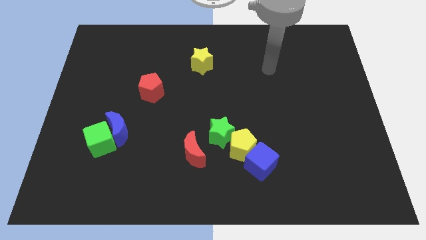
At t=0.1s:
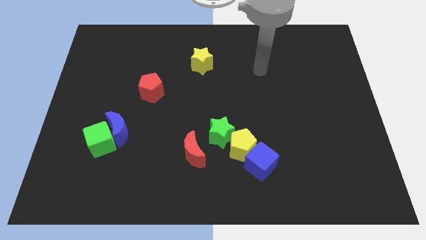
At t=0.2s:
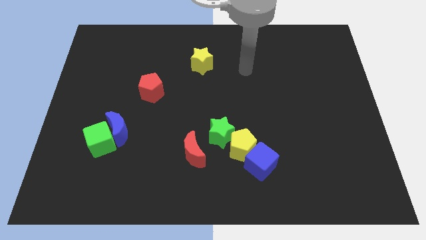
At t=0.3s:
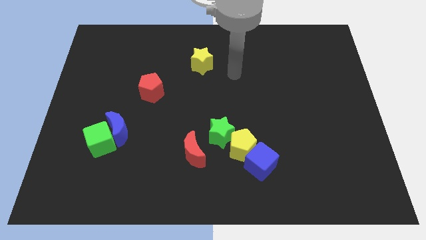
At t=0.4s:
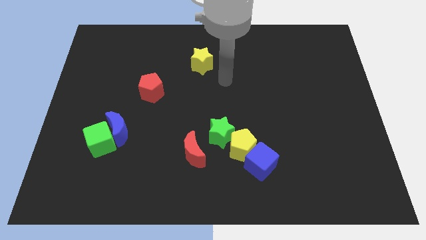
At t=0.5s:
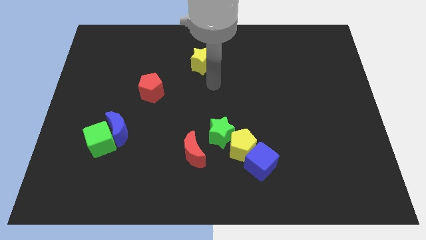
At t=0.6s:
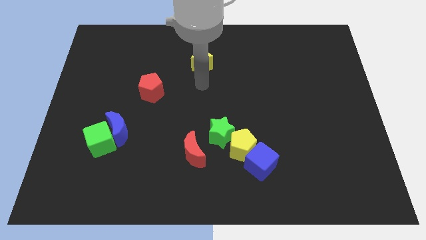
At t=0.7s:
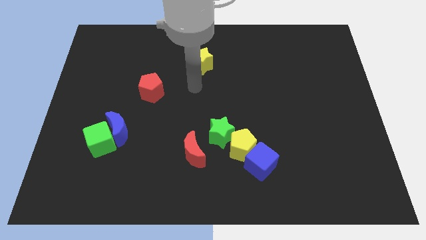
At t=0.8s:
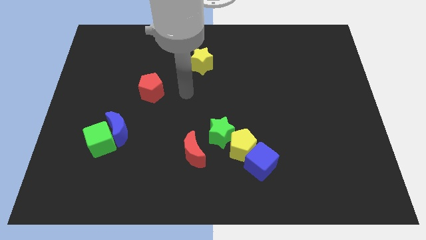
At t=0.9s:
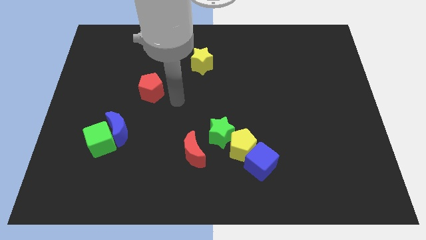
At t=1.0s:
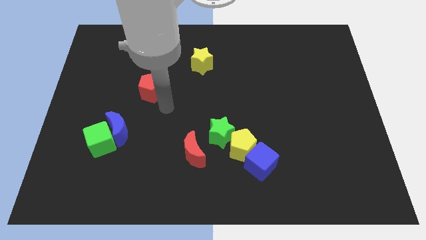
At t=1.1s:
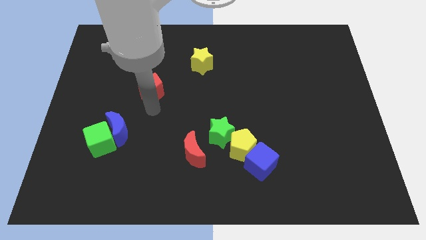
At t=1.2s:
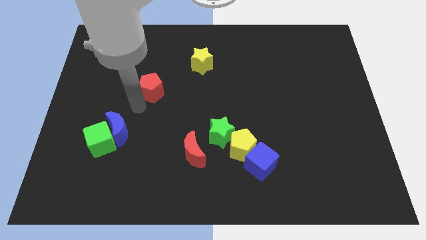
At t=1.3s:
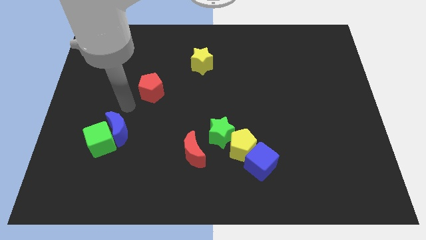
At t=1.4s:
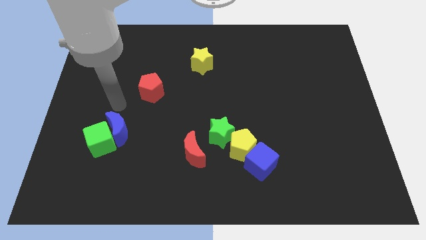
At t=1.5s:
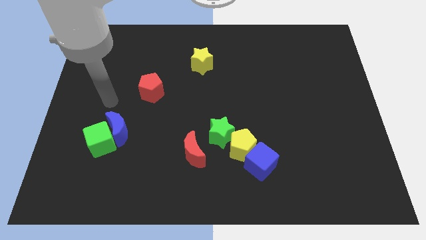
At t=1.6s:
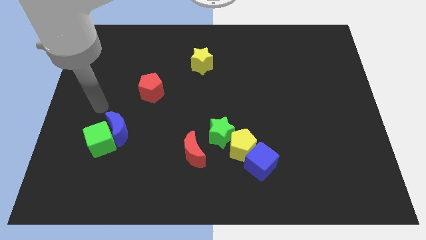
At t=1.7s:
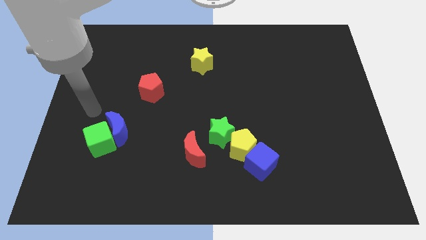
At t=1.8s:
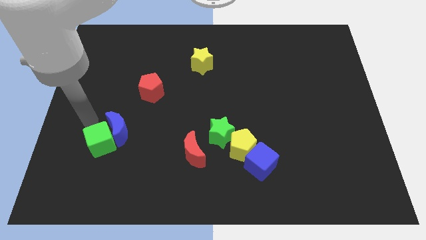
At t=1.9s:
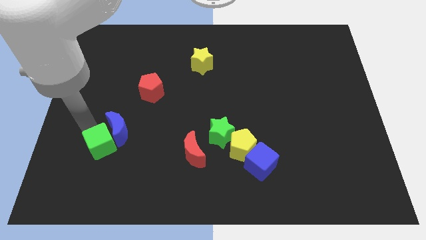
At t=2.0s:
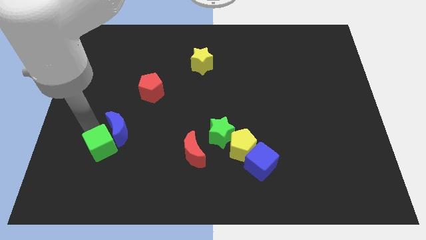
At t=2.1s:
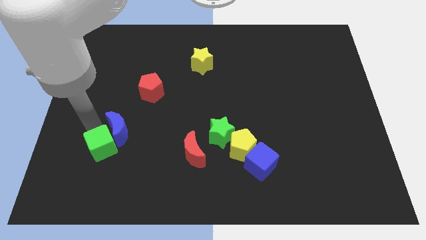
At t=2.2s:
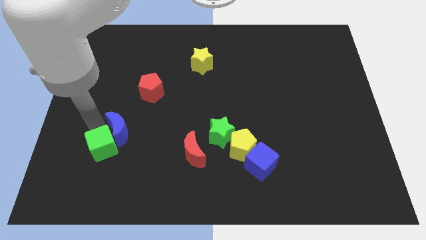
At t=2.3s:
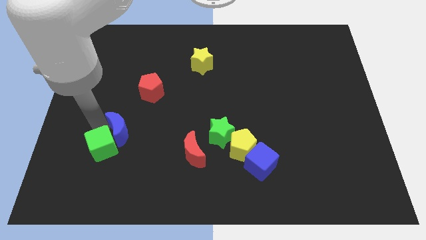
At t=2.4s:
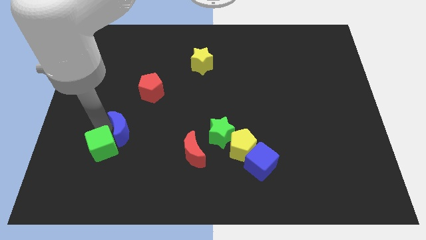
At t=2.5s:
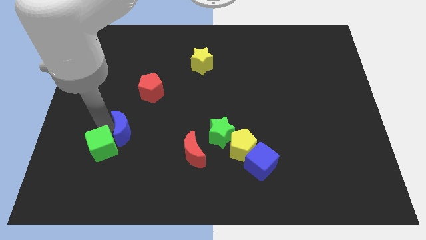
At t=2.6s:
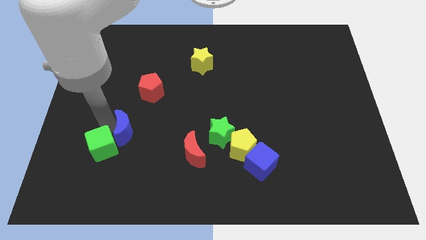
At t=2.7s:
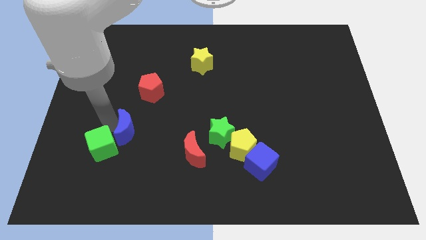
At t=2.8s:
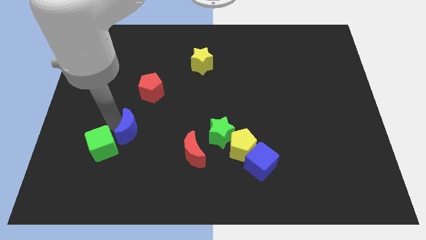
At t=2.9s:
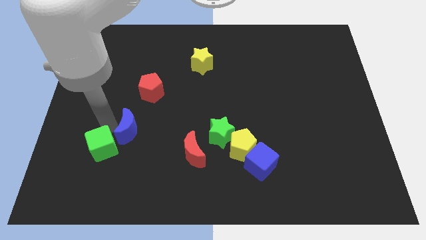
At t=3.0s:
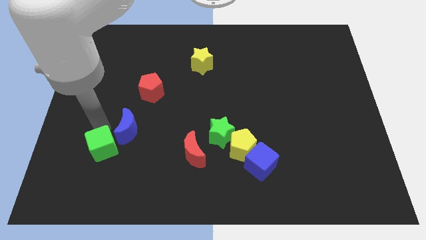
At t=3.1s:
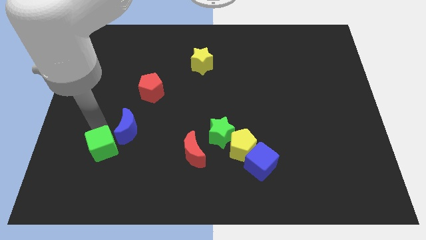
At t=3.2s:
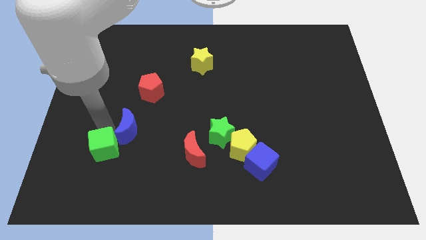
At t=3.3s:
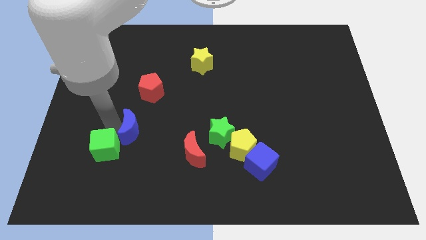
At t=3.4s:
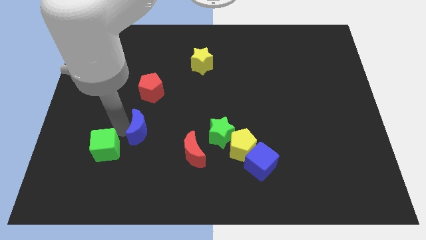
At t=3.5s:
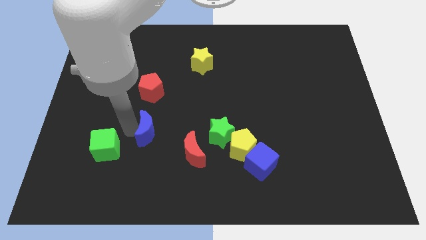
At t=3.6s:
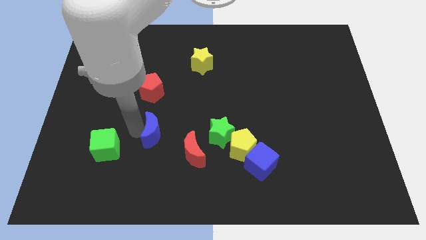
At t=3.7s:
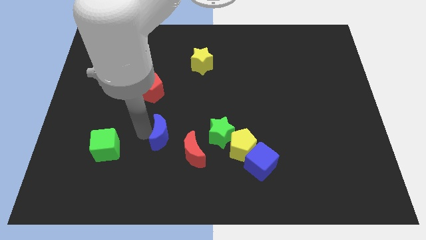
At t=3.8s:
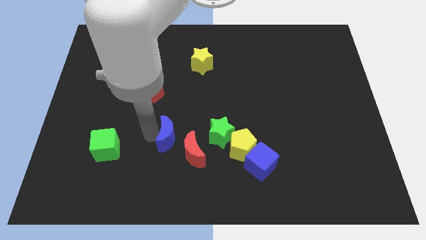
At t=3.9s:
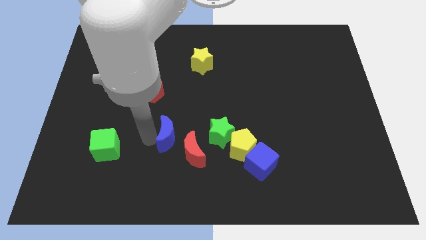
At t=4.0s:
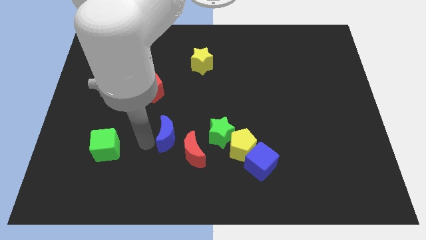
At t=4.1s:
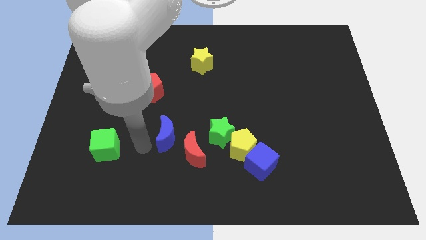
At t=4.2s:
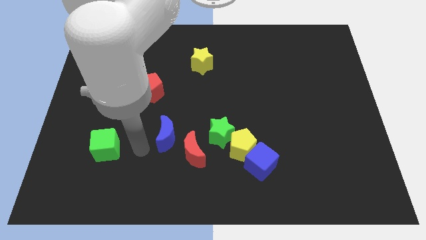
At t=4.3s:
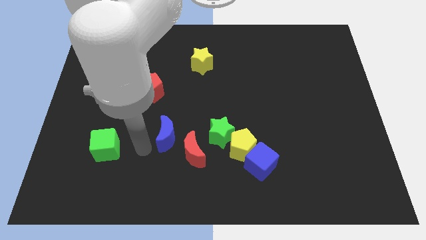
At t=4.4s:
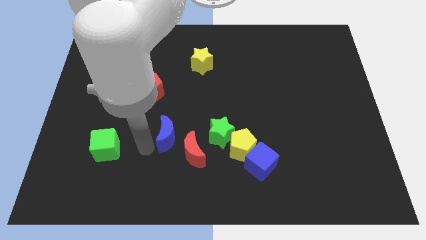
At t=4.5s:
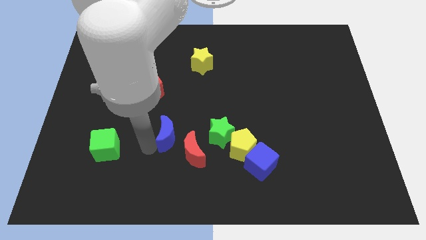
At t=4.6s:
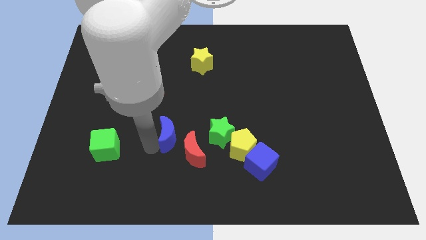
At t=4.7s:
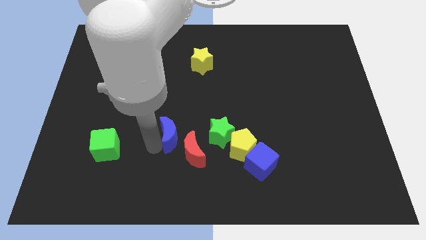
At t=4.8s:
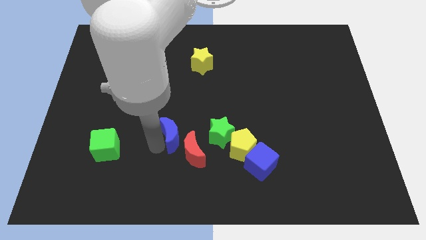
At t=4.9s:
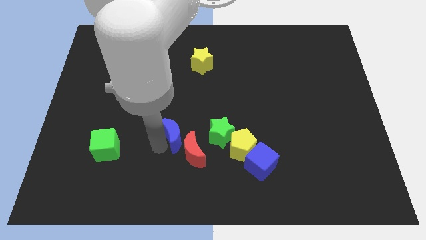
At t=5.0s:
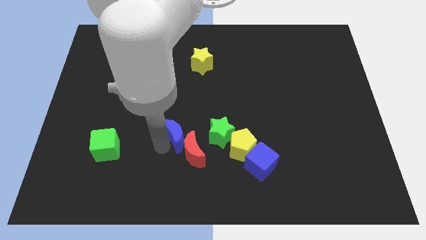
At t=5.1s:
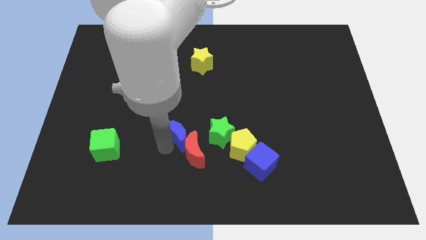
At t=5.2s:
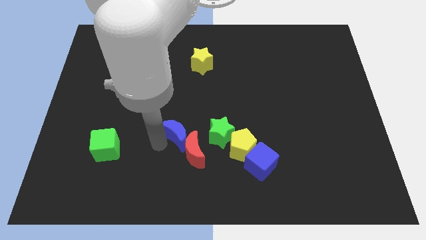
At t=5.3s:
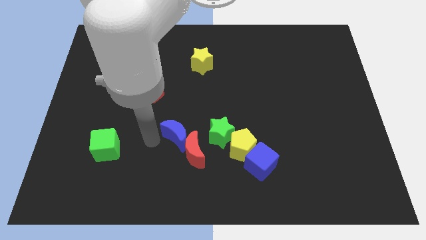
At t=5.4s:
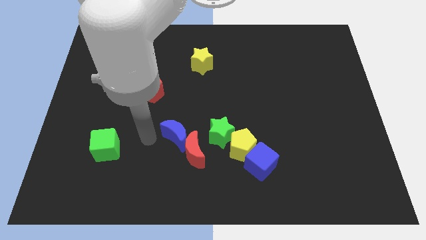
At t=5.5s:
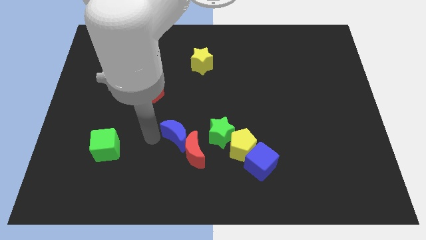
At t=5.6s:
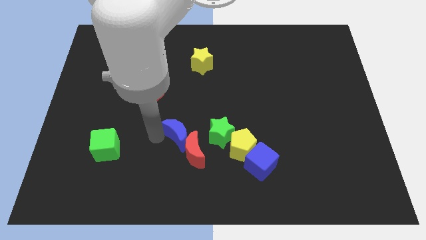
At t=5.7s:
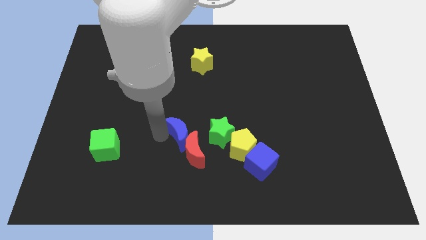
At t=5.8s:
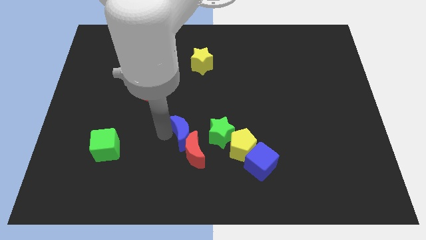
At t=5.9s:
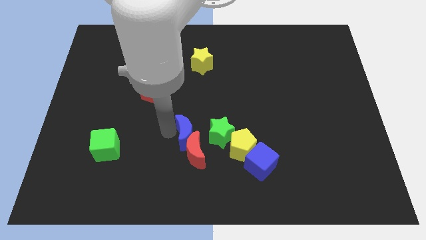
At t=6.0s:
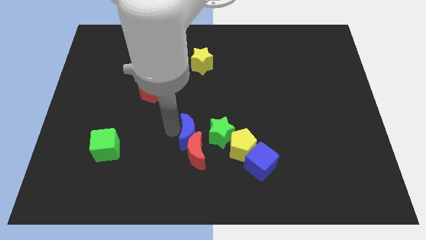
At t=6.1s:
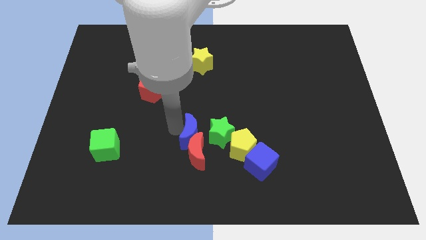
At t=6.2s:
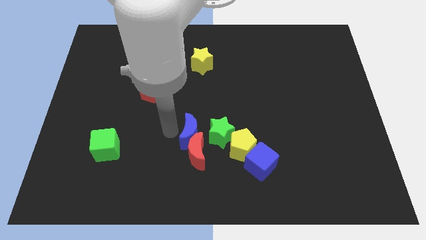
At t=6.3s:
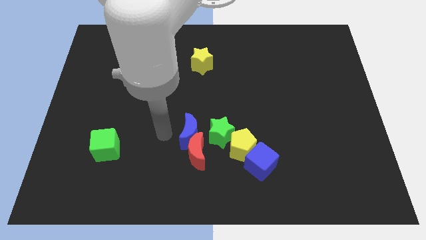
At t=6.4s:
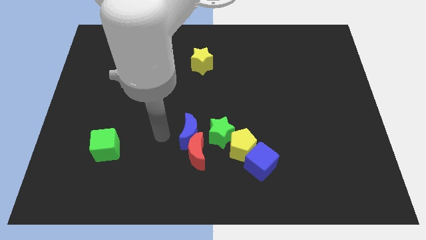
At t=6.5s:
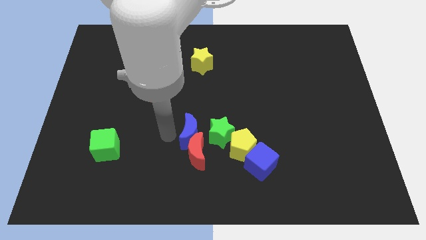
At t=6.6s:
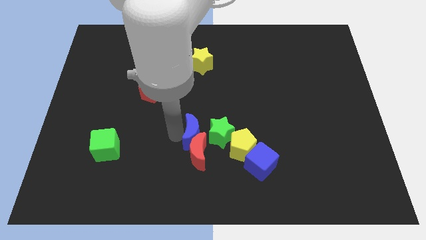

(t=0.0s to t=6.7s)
move the blue moon next to the green star

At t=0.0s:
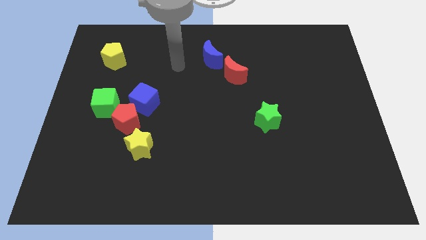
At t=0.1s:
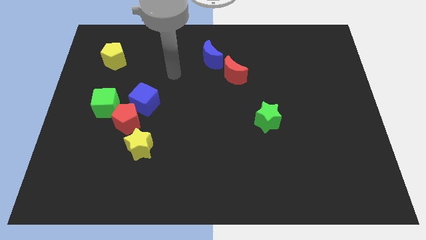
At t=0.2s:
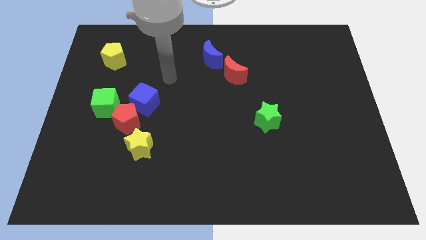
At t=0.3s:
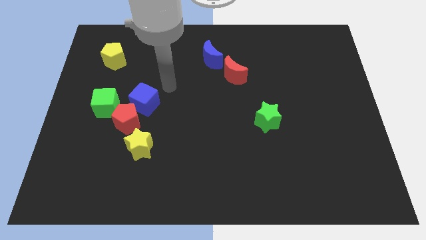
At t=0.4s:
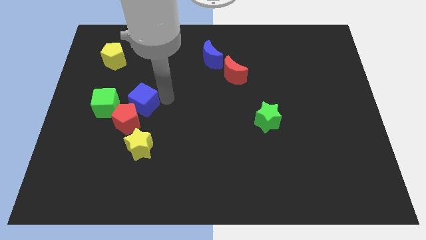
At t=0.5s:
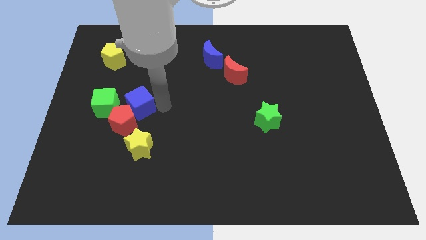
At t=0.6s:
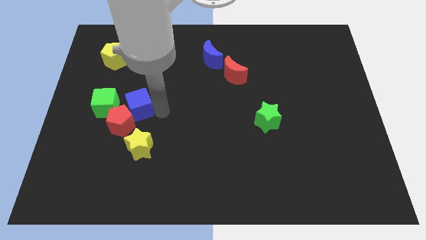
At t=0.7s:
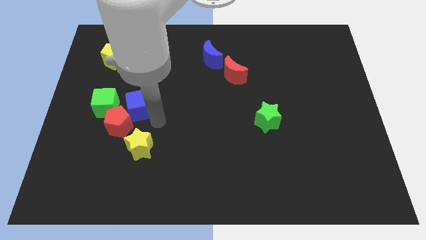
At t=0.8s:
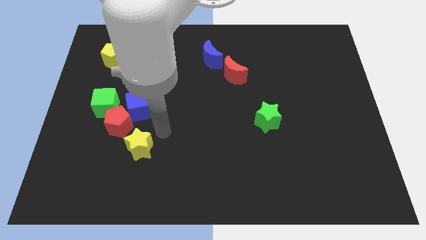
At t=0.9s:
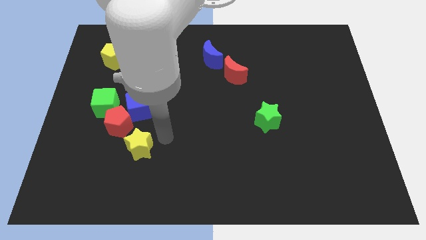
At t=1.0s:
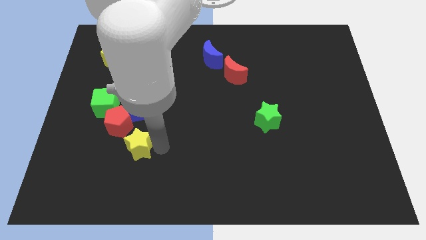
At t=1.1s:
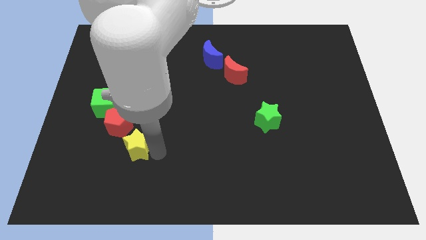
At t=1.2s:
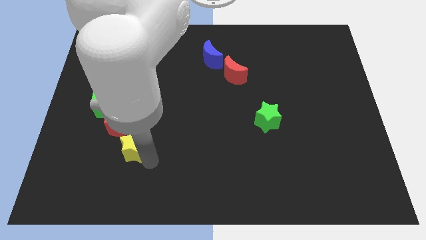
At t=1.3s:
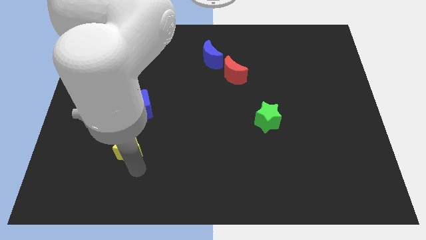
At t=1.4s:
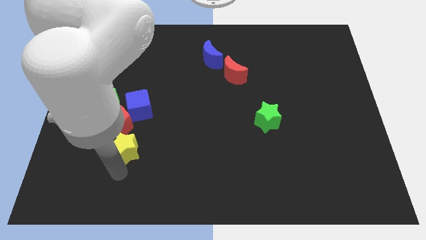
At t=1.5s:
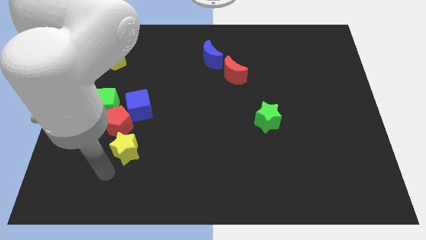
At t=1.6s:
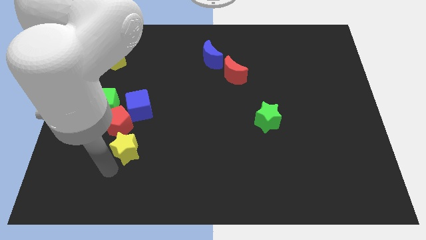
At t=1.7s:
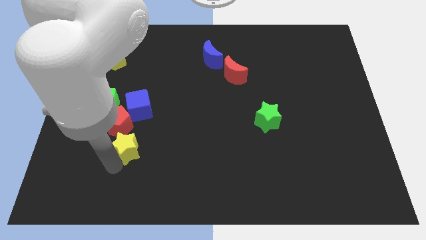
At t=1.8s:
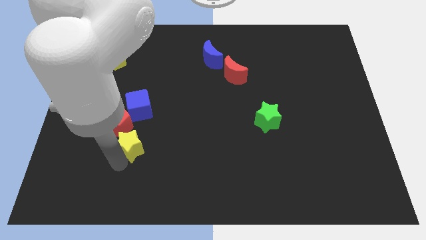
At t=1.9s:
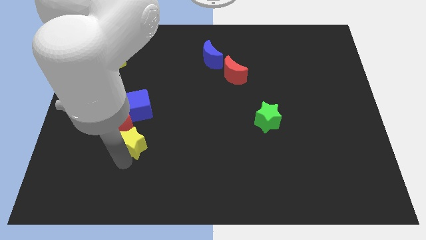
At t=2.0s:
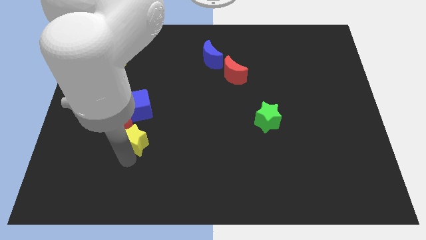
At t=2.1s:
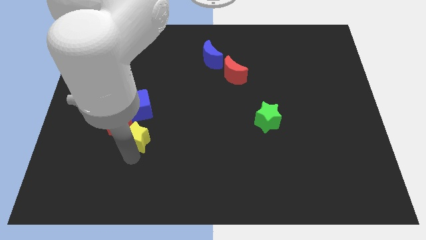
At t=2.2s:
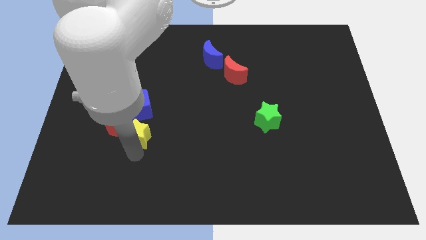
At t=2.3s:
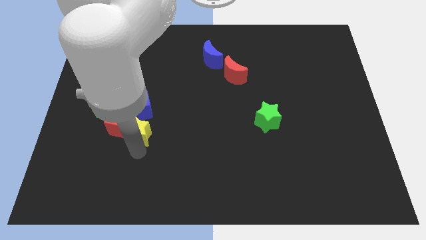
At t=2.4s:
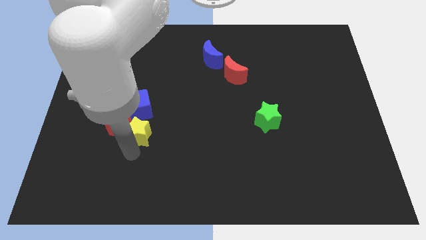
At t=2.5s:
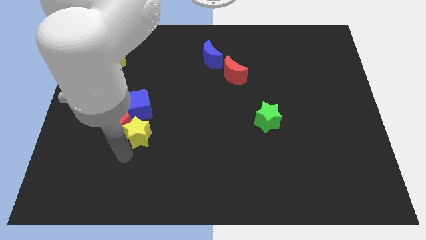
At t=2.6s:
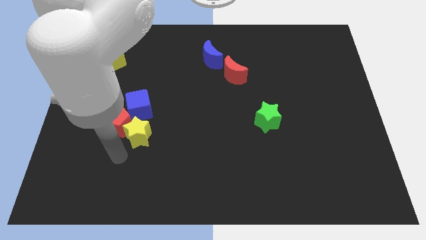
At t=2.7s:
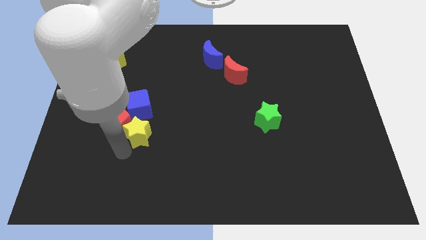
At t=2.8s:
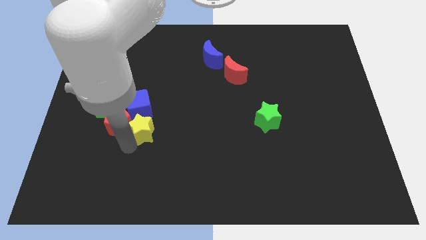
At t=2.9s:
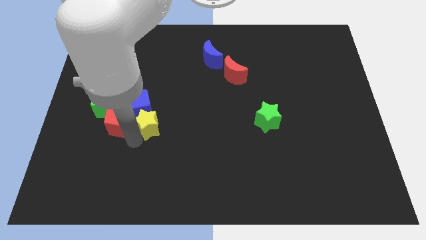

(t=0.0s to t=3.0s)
put the yellow star next to the blue cube
